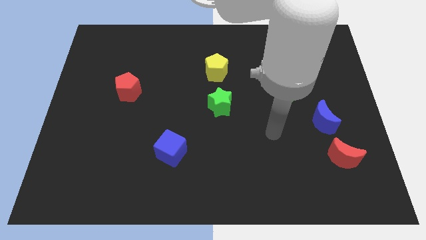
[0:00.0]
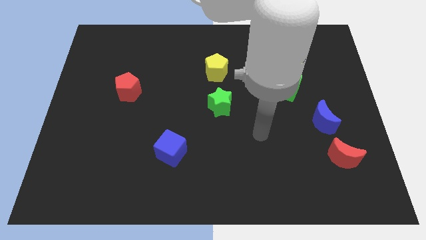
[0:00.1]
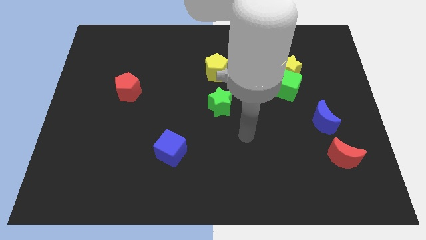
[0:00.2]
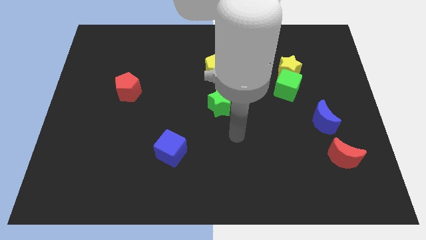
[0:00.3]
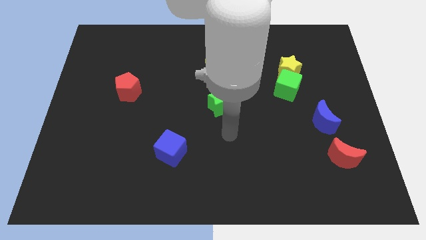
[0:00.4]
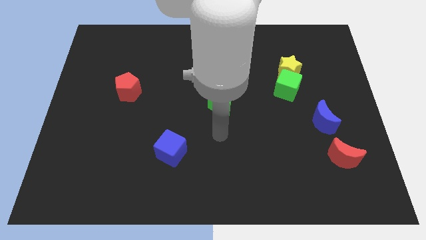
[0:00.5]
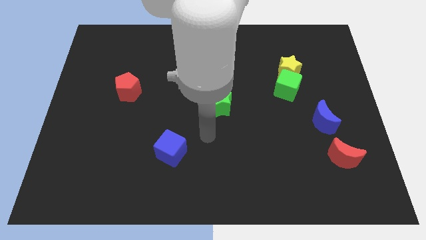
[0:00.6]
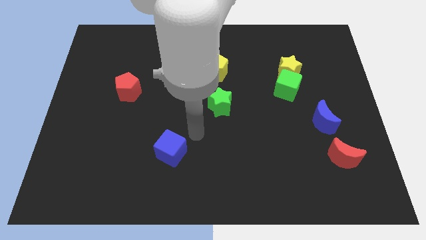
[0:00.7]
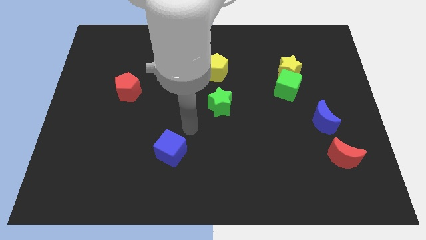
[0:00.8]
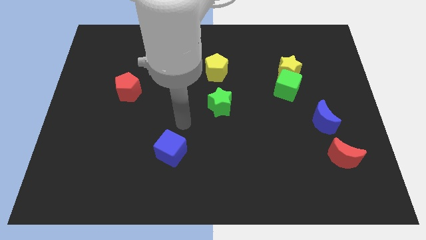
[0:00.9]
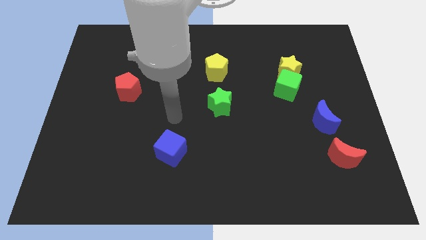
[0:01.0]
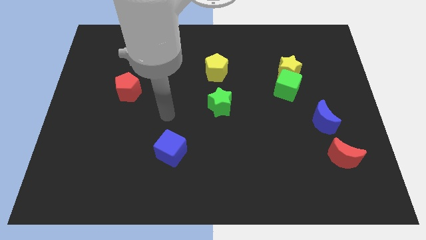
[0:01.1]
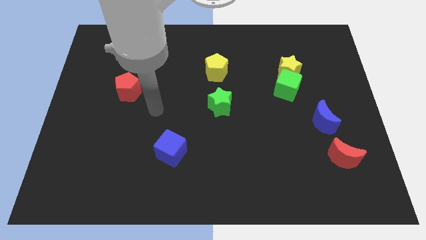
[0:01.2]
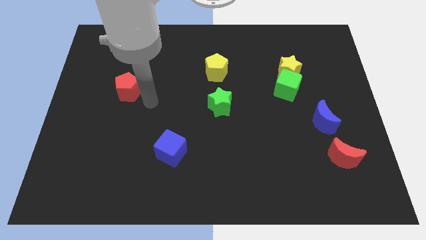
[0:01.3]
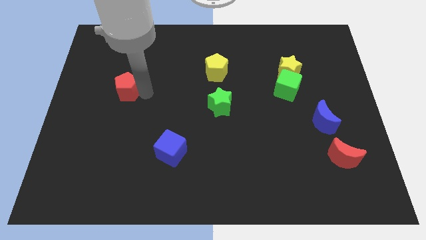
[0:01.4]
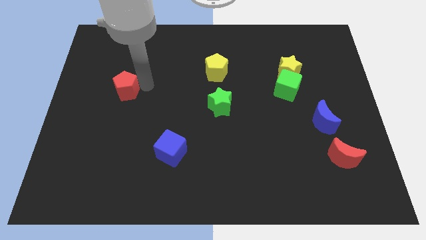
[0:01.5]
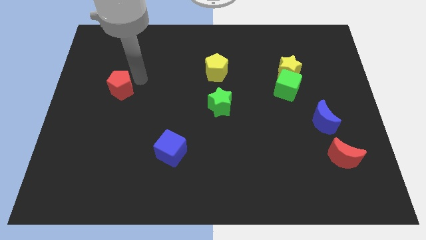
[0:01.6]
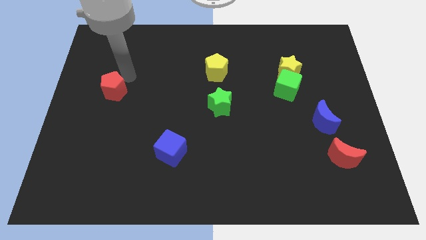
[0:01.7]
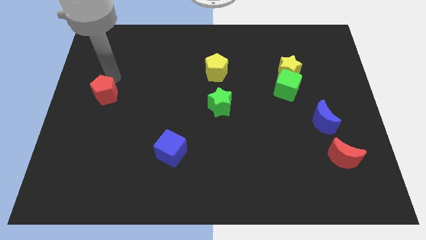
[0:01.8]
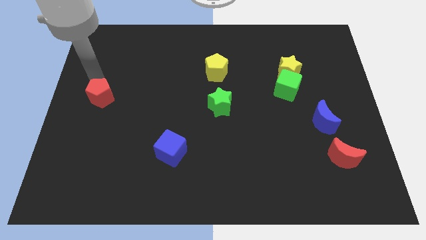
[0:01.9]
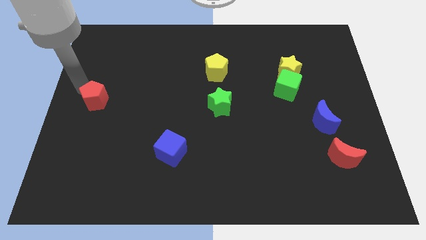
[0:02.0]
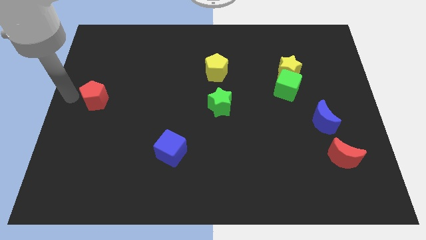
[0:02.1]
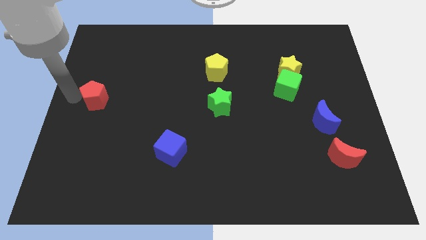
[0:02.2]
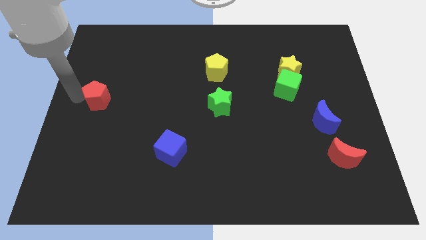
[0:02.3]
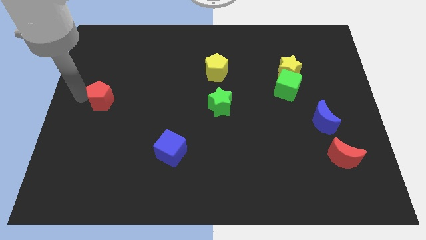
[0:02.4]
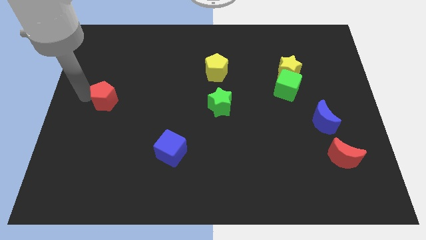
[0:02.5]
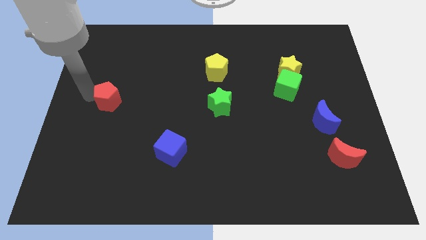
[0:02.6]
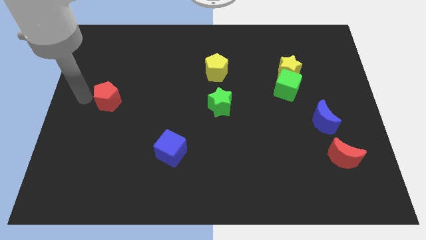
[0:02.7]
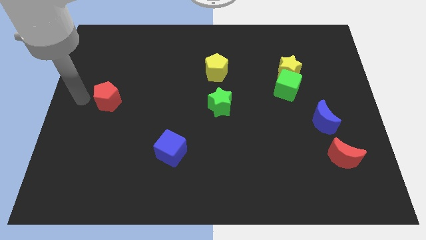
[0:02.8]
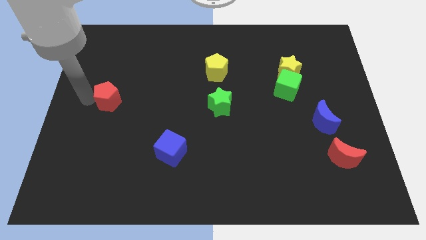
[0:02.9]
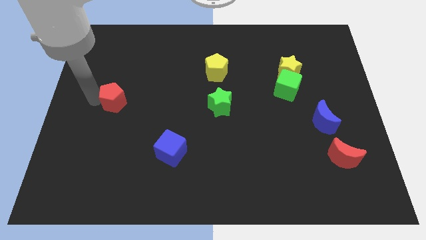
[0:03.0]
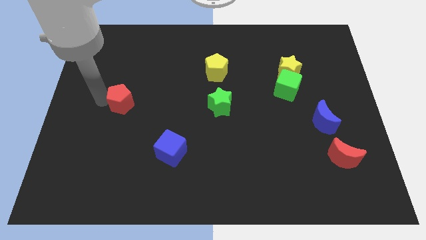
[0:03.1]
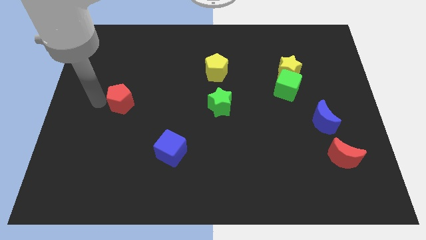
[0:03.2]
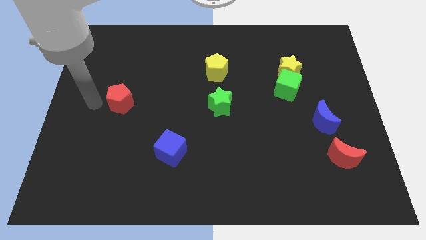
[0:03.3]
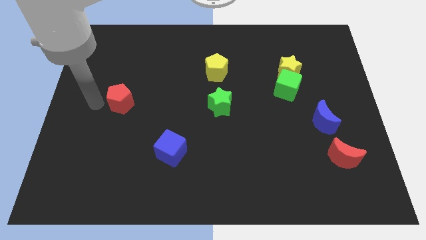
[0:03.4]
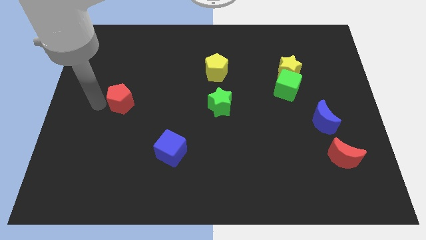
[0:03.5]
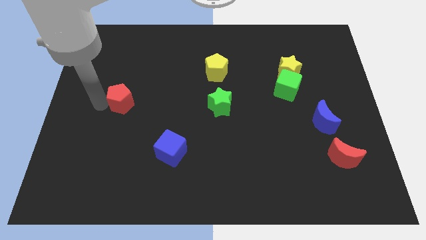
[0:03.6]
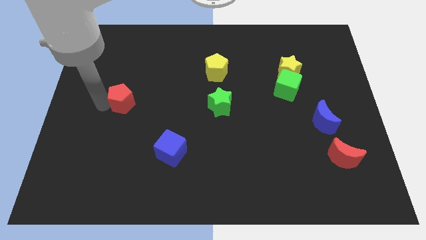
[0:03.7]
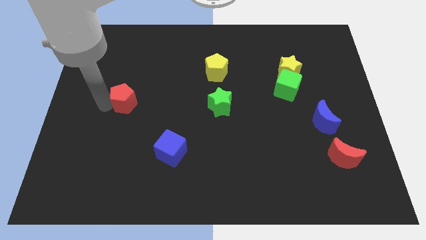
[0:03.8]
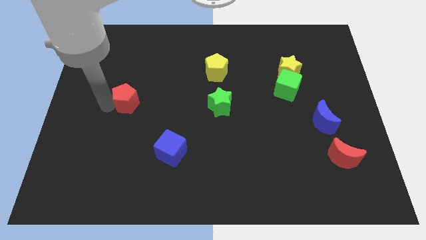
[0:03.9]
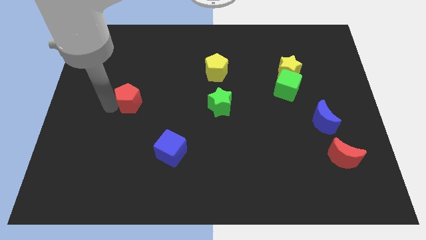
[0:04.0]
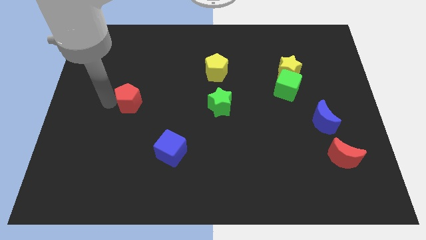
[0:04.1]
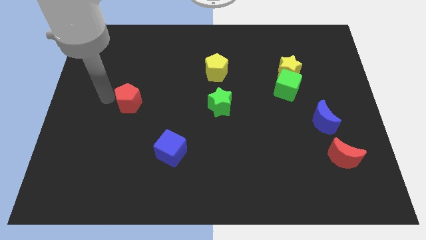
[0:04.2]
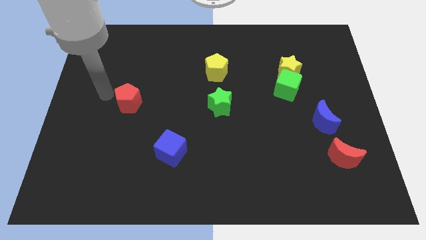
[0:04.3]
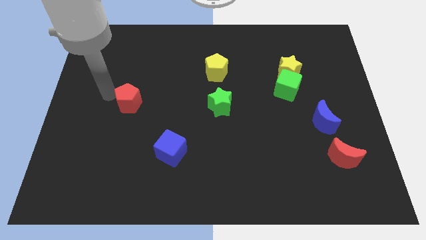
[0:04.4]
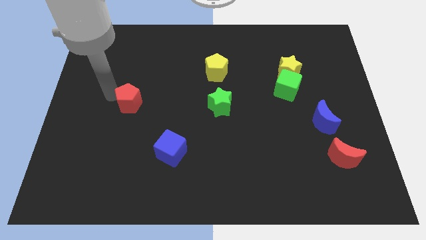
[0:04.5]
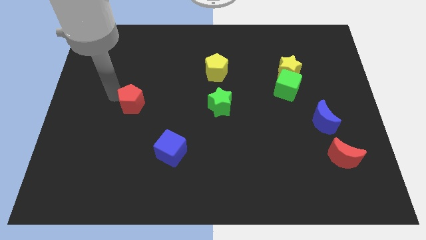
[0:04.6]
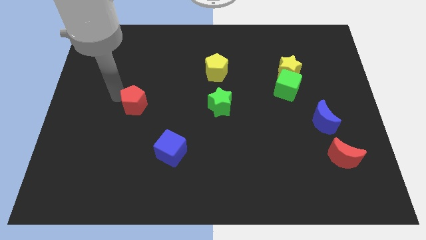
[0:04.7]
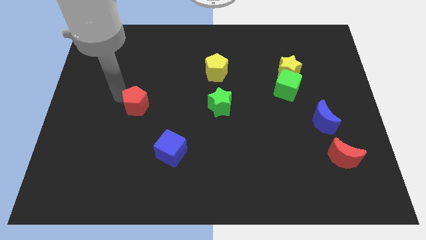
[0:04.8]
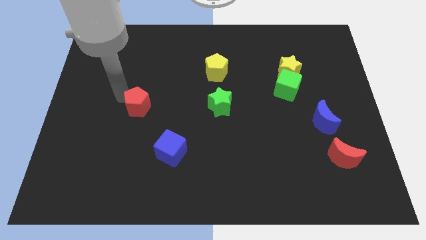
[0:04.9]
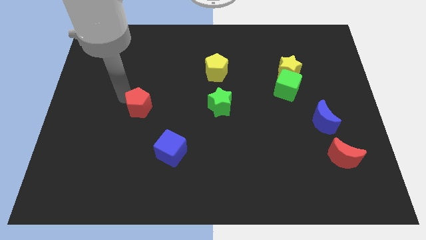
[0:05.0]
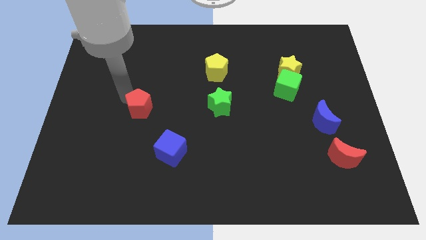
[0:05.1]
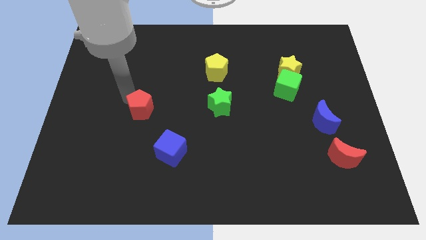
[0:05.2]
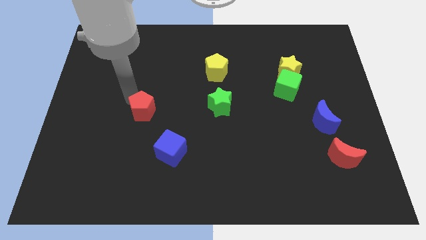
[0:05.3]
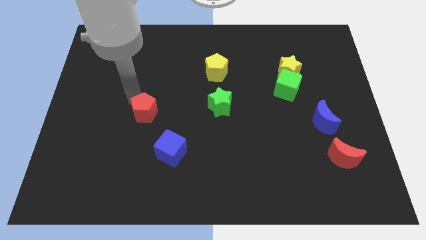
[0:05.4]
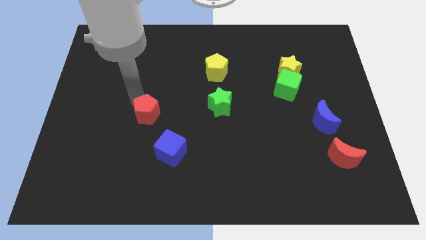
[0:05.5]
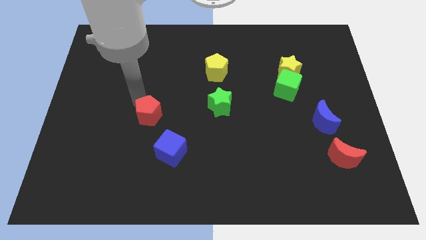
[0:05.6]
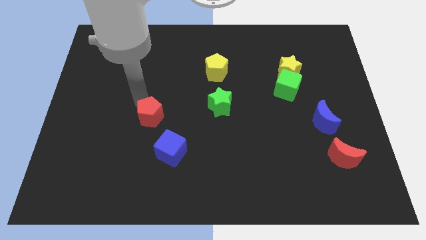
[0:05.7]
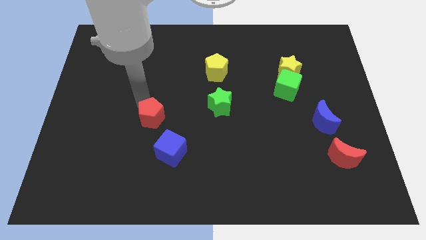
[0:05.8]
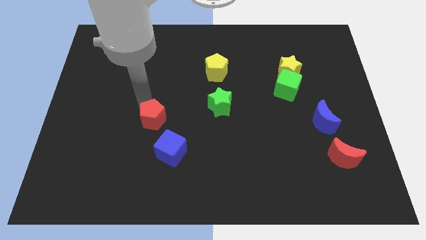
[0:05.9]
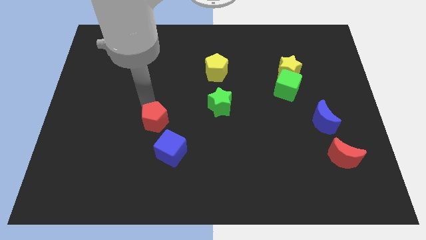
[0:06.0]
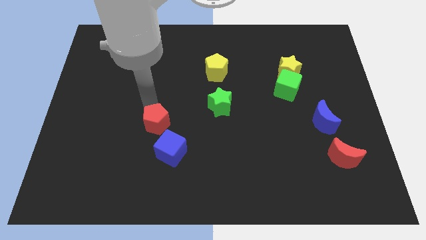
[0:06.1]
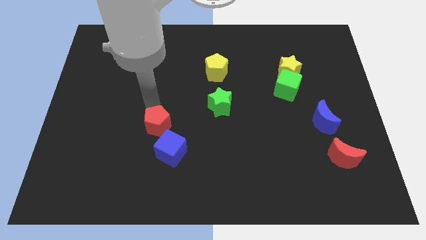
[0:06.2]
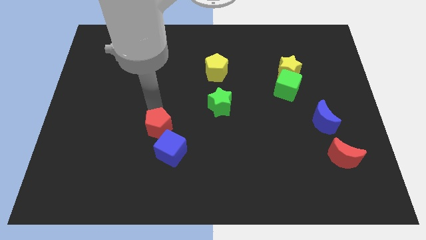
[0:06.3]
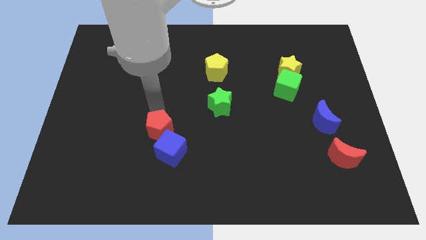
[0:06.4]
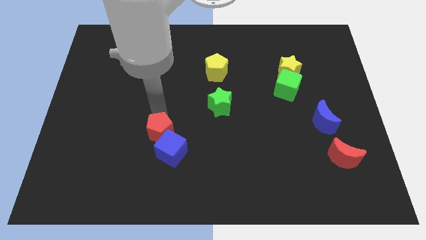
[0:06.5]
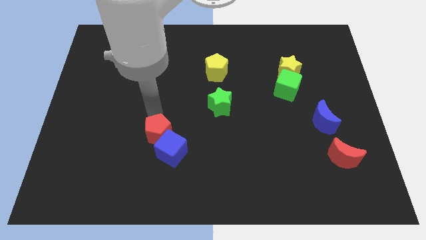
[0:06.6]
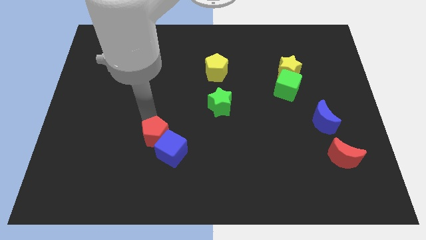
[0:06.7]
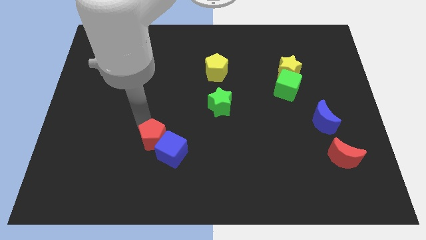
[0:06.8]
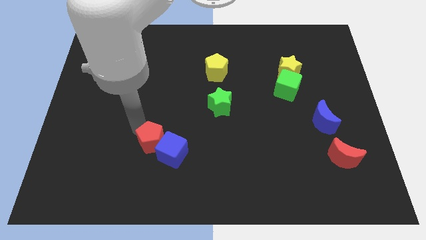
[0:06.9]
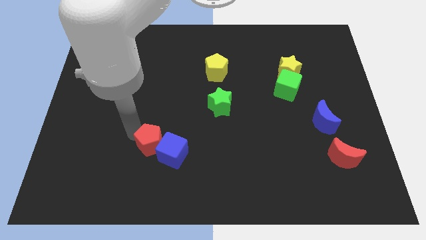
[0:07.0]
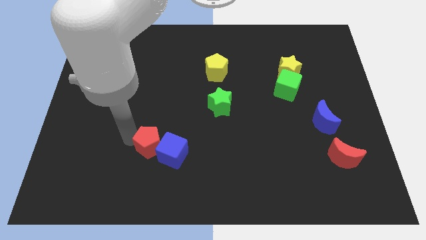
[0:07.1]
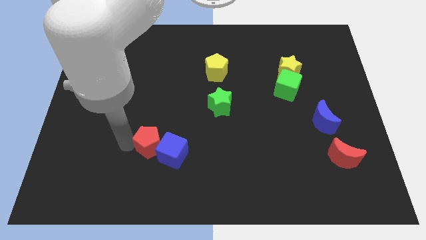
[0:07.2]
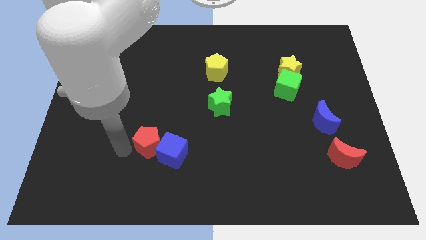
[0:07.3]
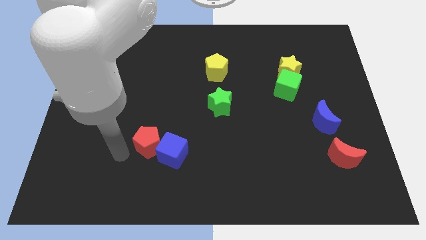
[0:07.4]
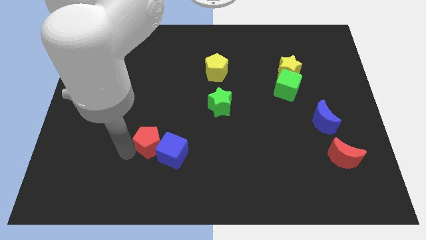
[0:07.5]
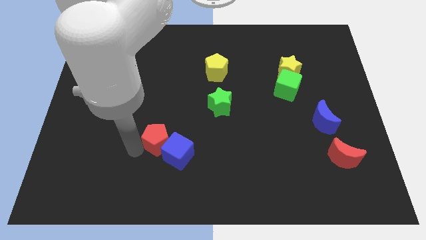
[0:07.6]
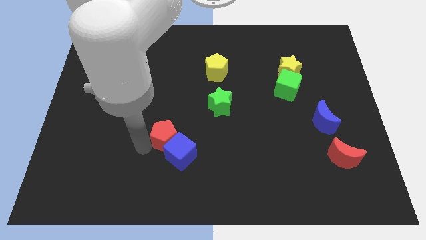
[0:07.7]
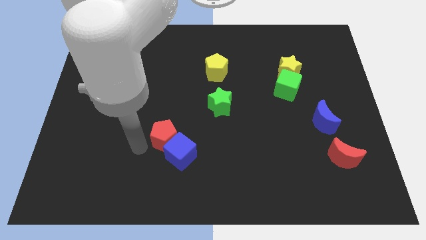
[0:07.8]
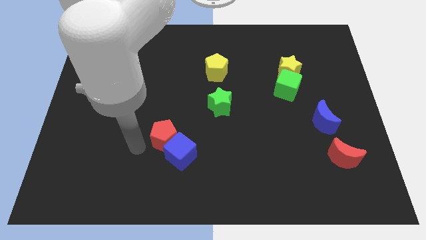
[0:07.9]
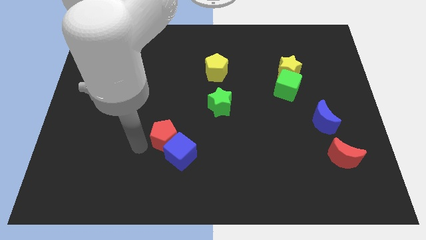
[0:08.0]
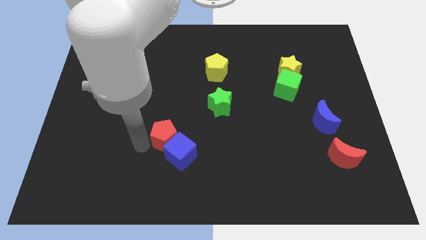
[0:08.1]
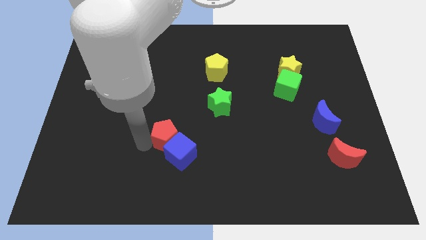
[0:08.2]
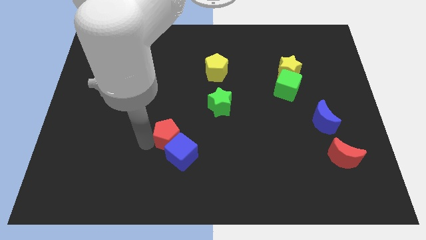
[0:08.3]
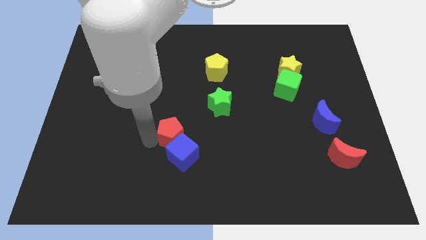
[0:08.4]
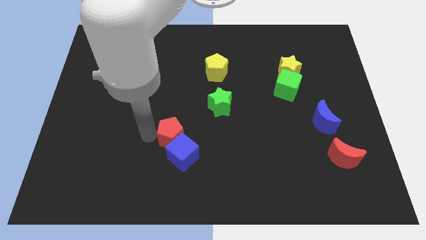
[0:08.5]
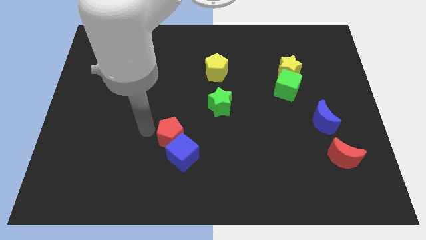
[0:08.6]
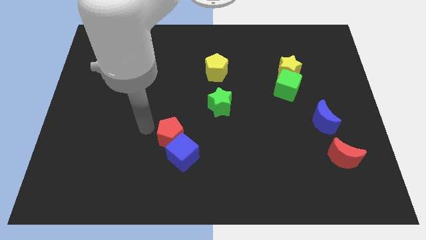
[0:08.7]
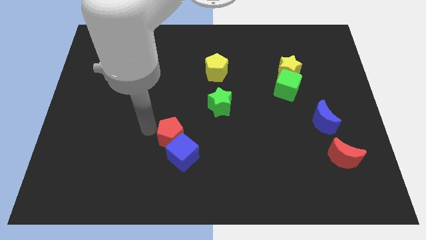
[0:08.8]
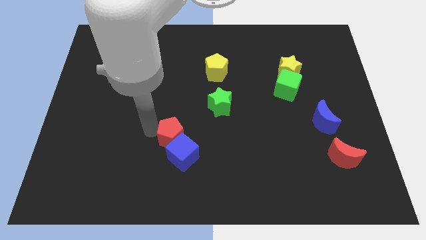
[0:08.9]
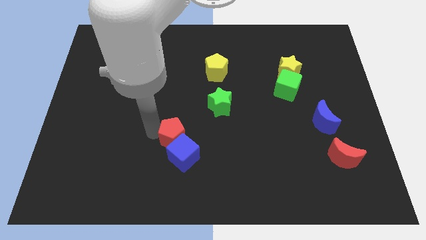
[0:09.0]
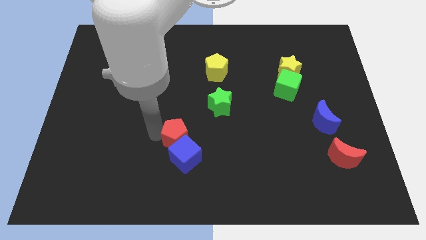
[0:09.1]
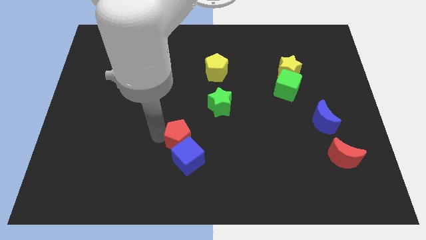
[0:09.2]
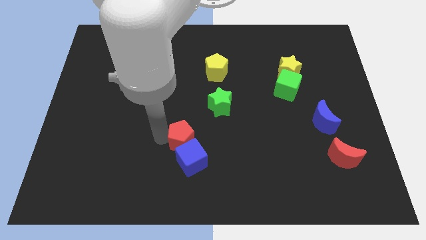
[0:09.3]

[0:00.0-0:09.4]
slide the red pentagon downwards and to the right diagonally
